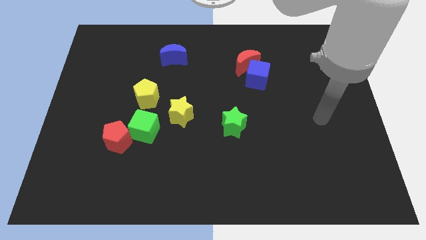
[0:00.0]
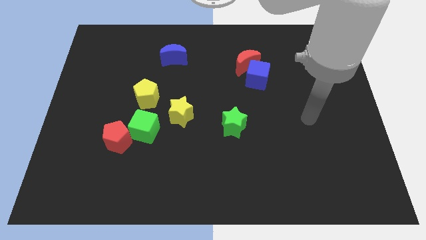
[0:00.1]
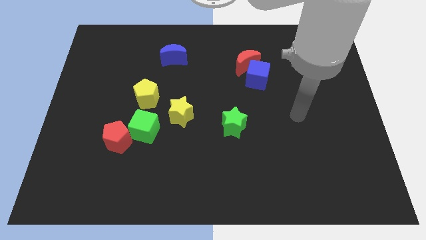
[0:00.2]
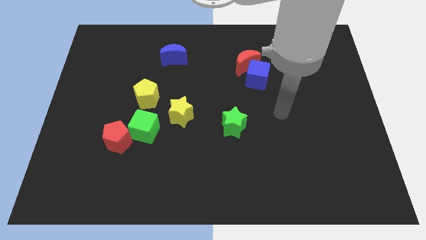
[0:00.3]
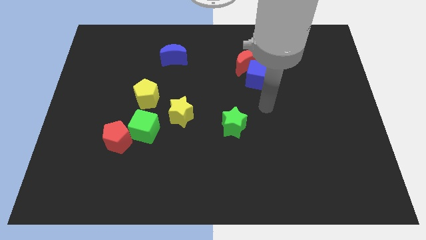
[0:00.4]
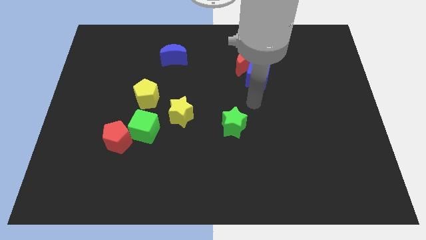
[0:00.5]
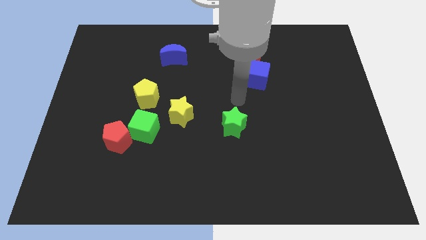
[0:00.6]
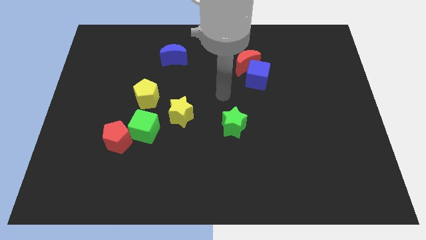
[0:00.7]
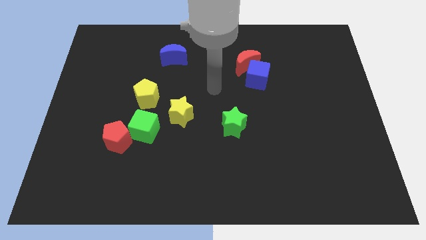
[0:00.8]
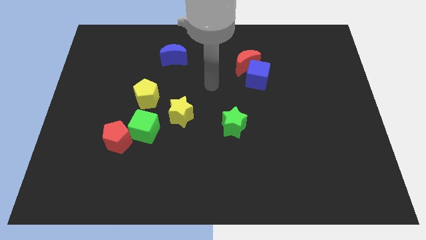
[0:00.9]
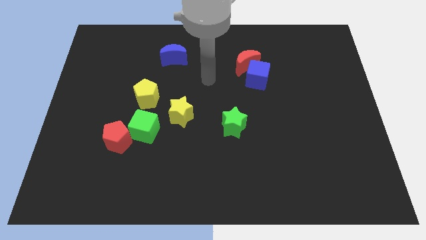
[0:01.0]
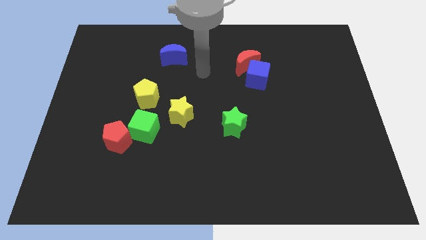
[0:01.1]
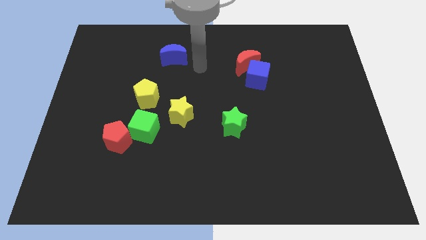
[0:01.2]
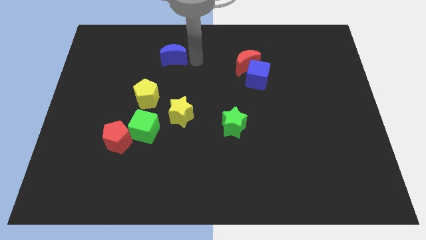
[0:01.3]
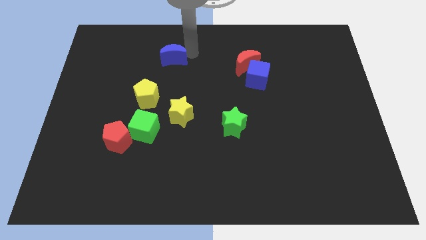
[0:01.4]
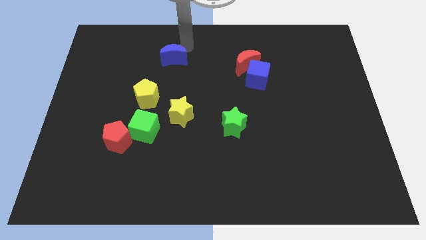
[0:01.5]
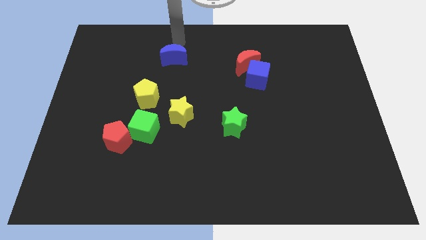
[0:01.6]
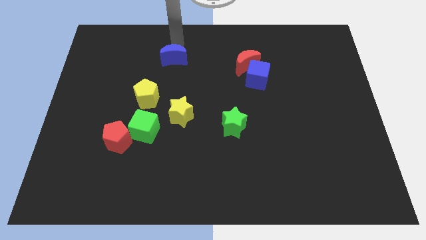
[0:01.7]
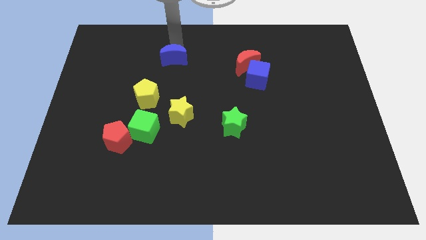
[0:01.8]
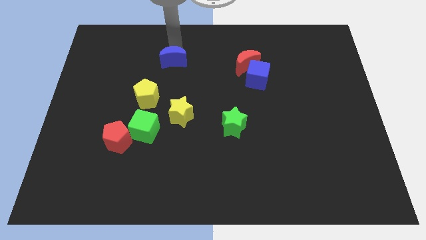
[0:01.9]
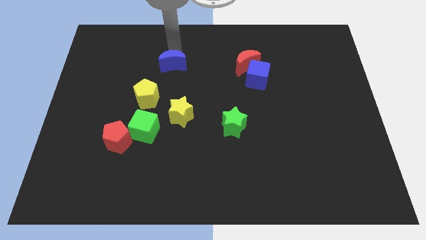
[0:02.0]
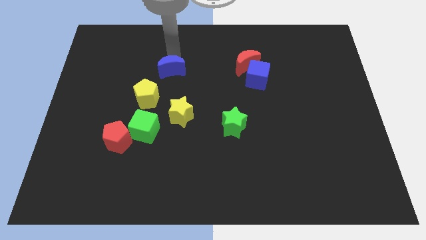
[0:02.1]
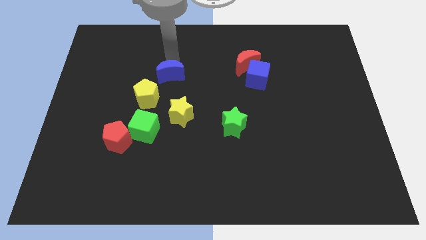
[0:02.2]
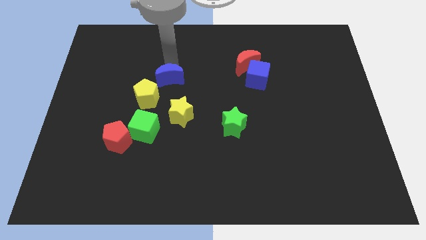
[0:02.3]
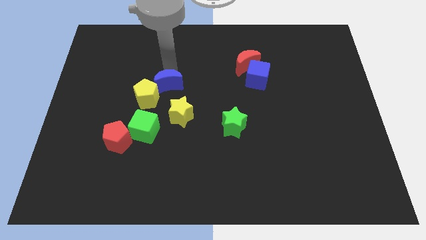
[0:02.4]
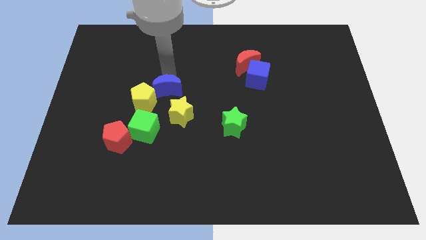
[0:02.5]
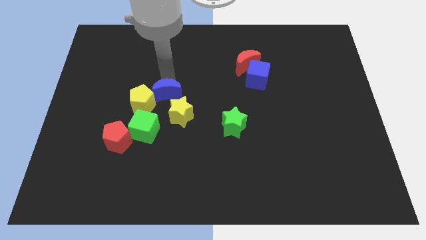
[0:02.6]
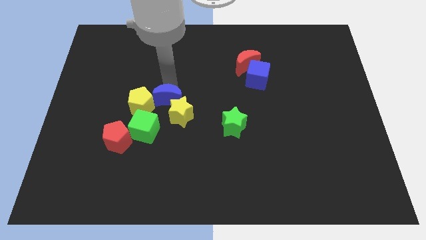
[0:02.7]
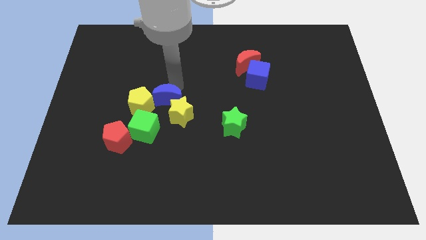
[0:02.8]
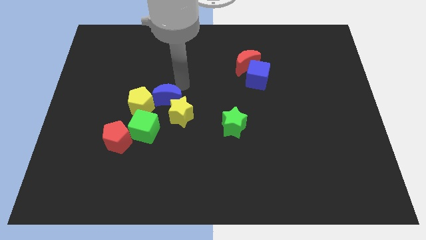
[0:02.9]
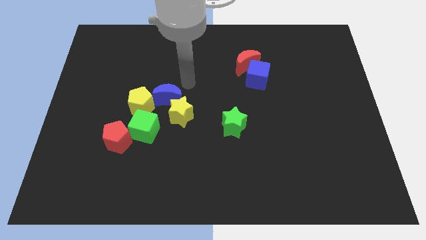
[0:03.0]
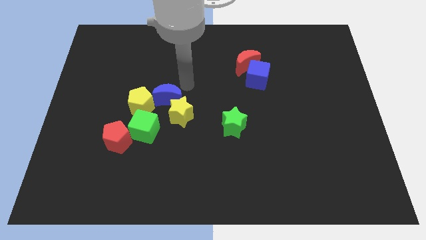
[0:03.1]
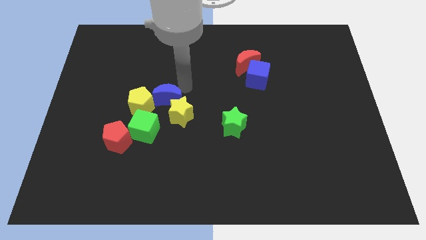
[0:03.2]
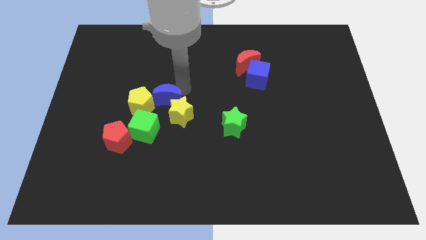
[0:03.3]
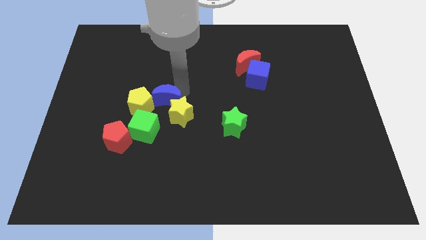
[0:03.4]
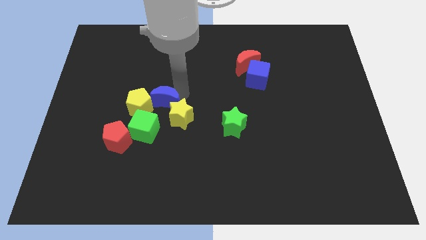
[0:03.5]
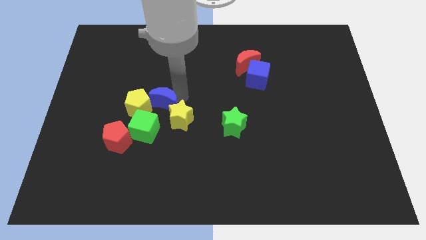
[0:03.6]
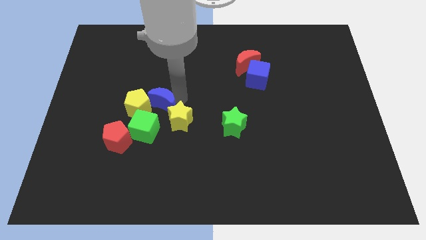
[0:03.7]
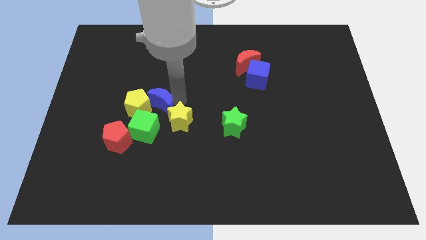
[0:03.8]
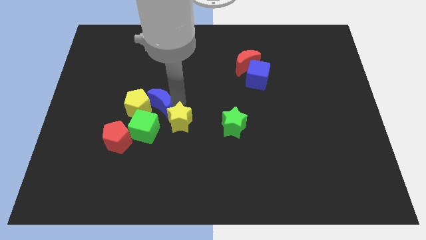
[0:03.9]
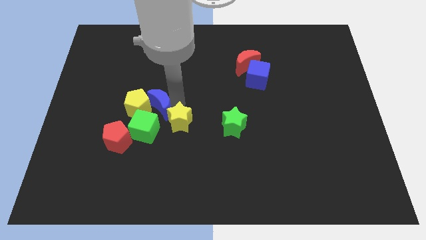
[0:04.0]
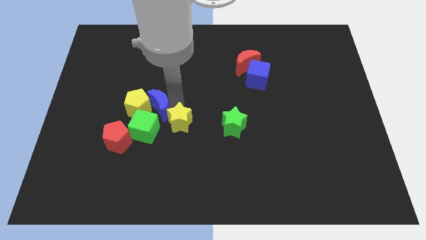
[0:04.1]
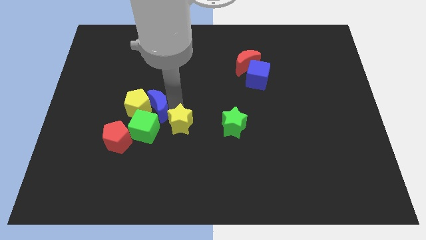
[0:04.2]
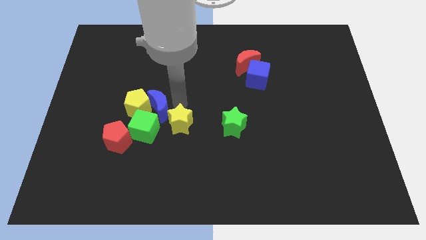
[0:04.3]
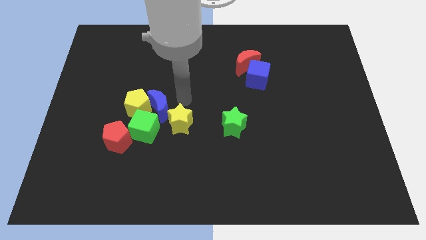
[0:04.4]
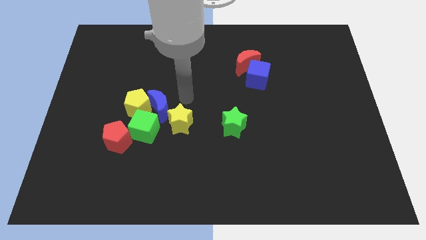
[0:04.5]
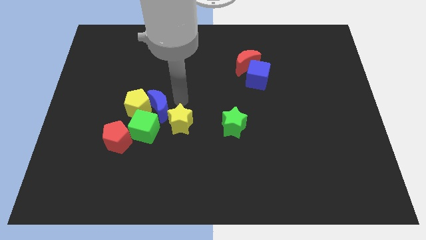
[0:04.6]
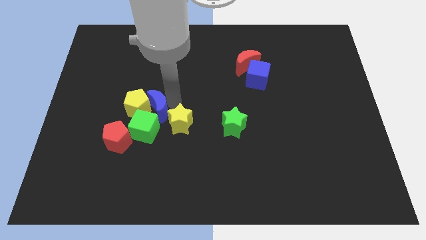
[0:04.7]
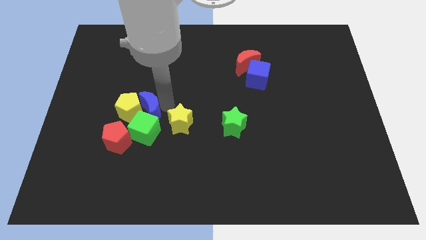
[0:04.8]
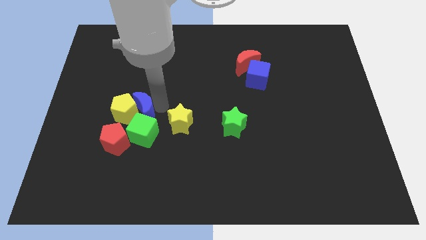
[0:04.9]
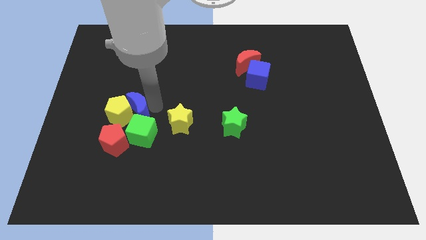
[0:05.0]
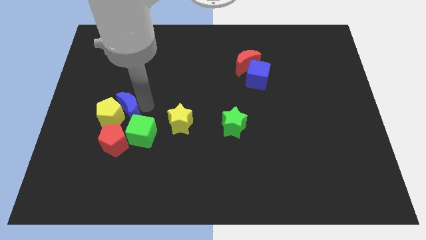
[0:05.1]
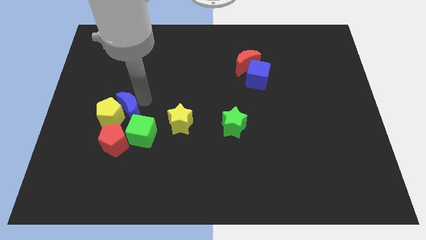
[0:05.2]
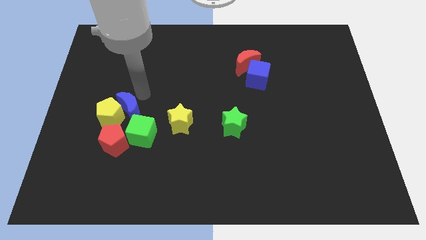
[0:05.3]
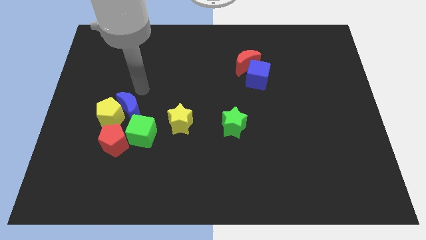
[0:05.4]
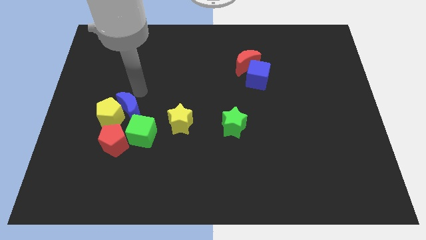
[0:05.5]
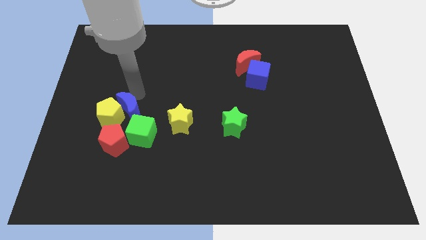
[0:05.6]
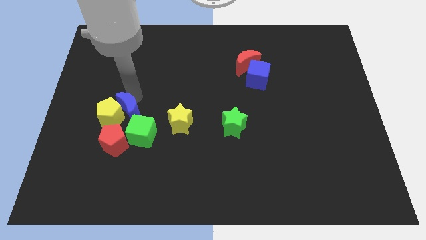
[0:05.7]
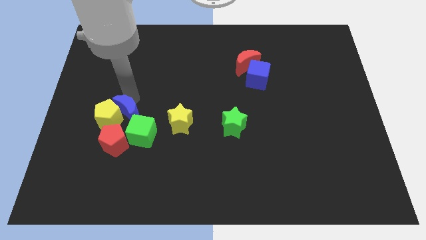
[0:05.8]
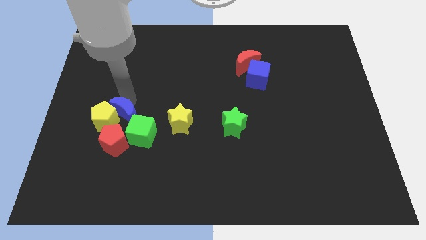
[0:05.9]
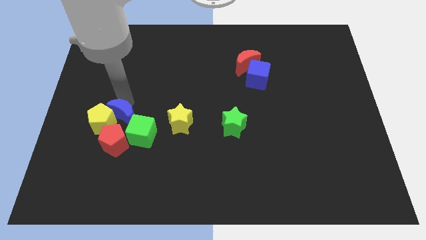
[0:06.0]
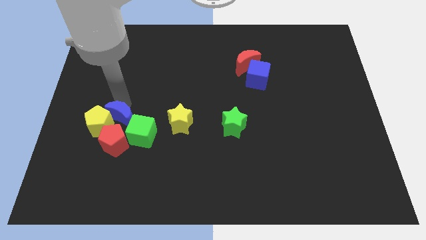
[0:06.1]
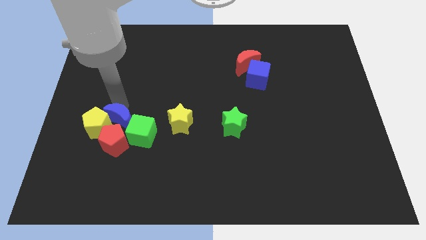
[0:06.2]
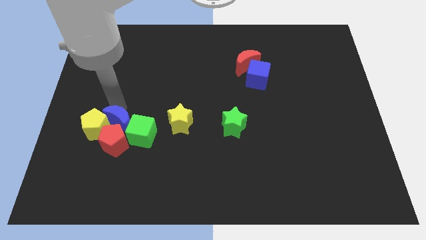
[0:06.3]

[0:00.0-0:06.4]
put the blue moon towards the red pentagon

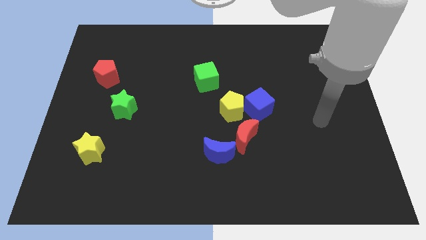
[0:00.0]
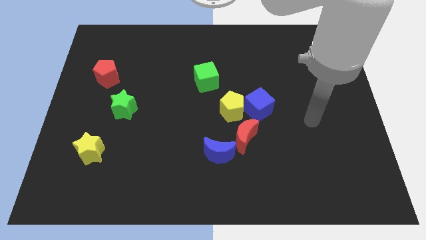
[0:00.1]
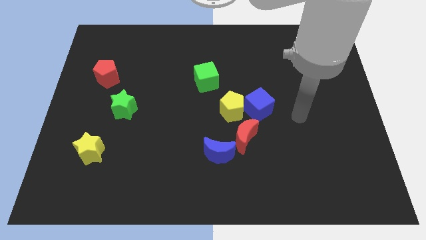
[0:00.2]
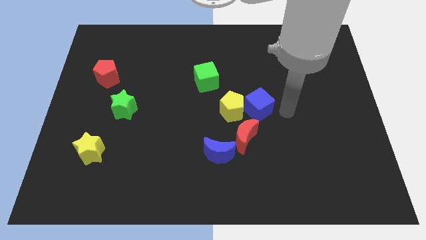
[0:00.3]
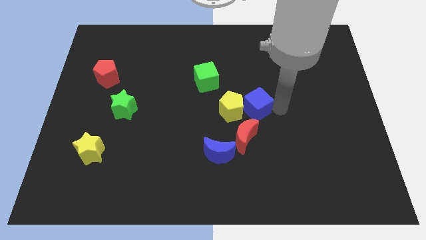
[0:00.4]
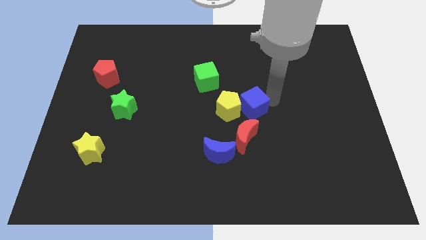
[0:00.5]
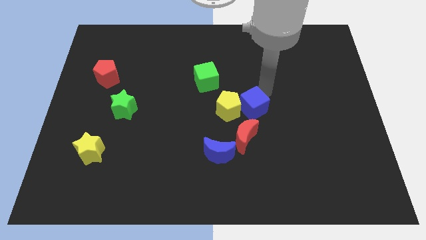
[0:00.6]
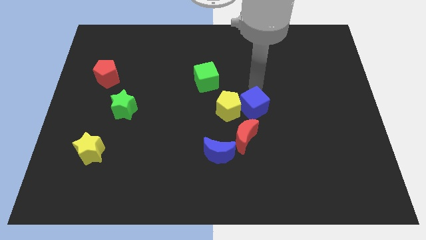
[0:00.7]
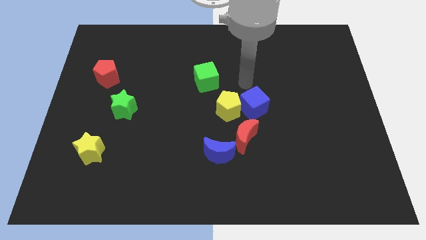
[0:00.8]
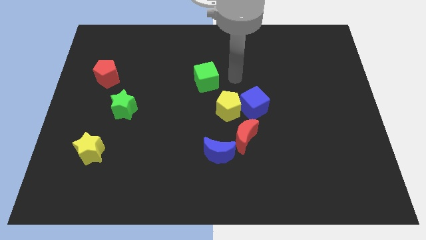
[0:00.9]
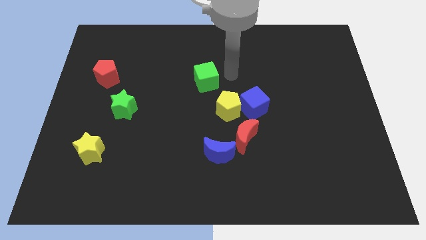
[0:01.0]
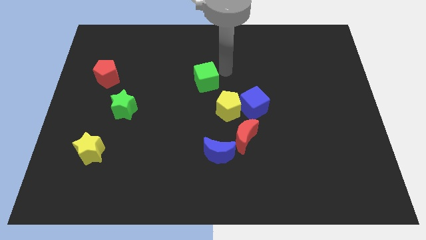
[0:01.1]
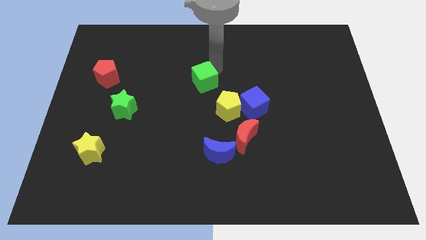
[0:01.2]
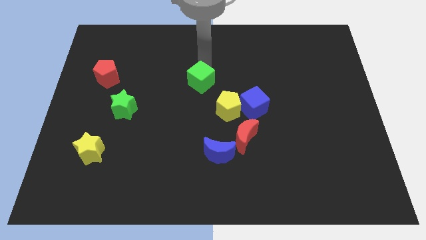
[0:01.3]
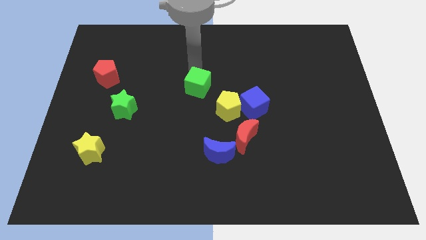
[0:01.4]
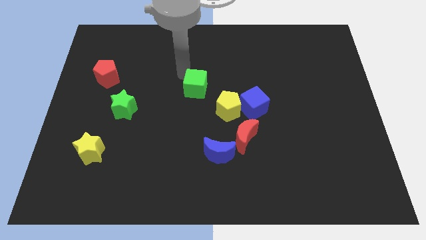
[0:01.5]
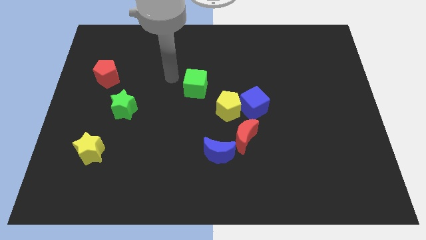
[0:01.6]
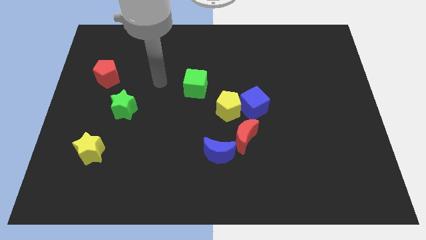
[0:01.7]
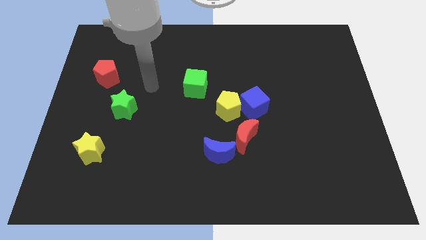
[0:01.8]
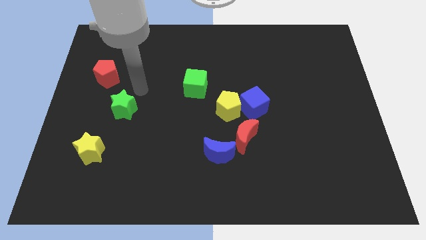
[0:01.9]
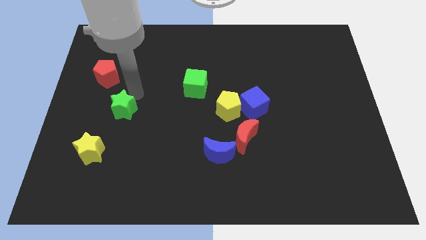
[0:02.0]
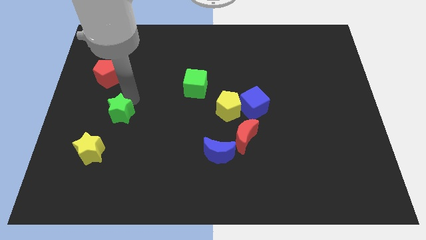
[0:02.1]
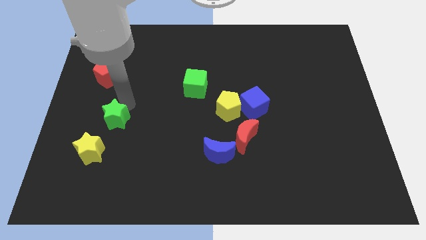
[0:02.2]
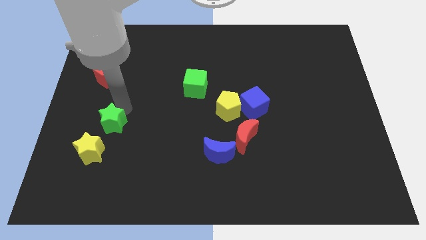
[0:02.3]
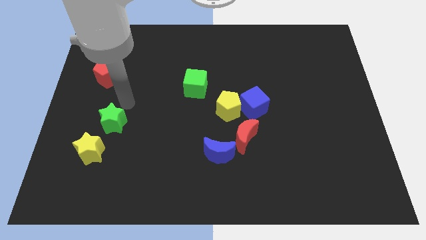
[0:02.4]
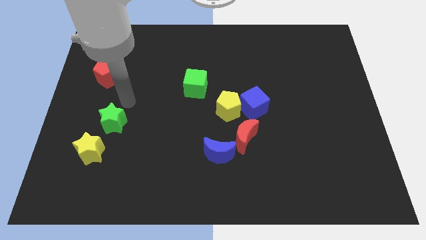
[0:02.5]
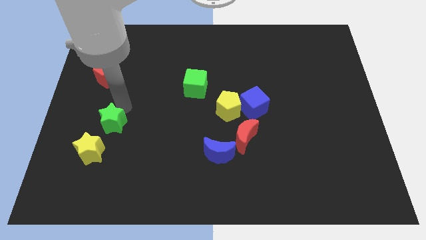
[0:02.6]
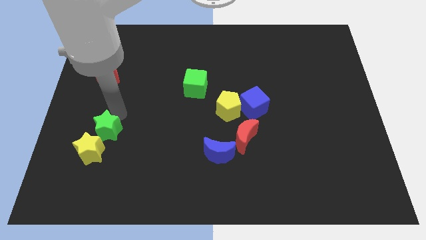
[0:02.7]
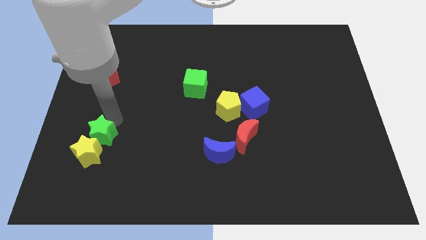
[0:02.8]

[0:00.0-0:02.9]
push the green star towards the yellow star
